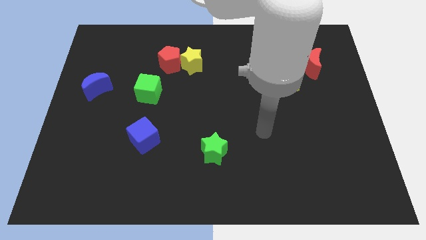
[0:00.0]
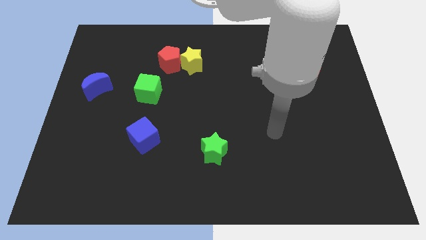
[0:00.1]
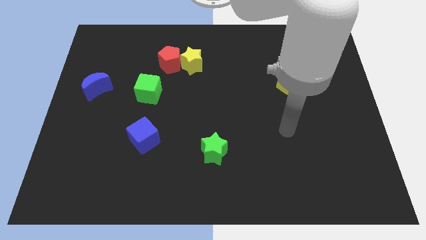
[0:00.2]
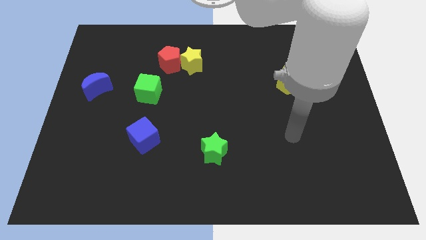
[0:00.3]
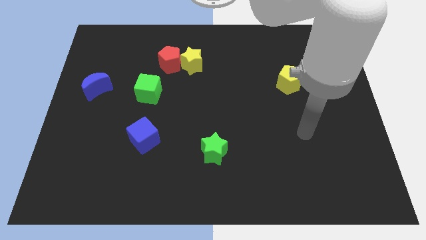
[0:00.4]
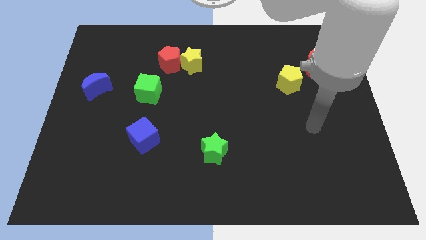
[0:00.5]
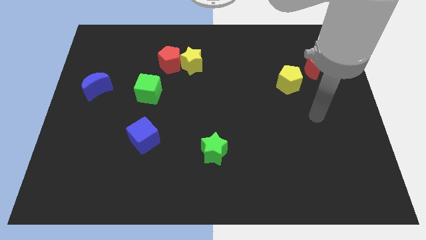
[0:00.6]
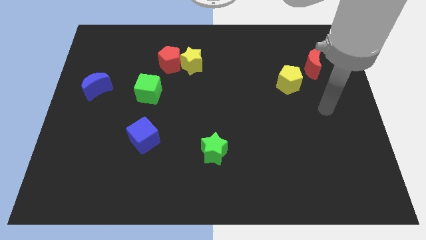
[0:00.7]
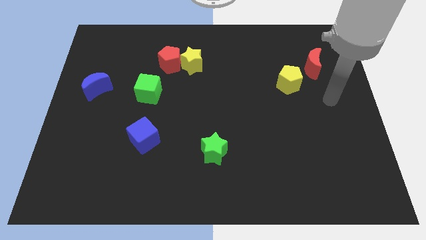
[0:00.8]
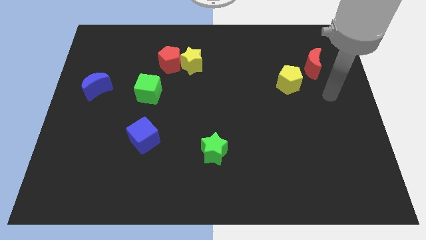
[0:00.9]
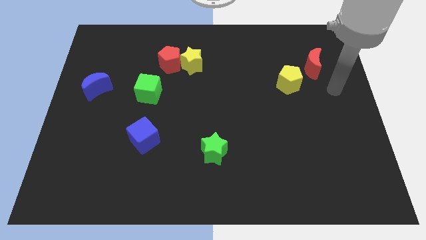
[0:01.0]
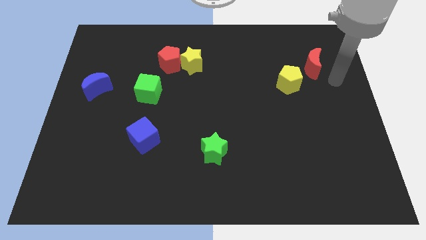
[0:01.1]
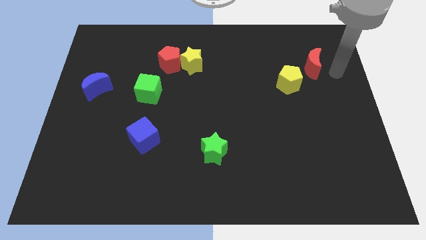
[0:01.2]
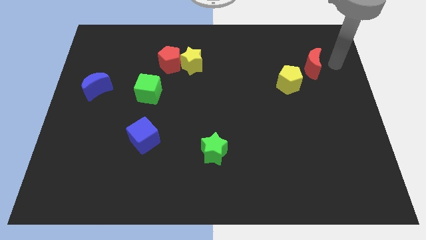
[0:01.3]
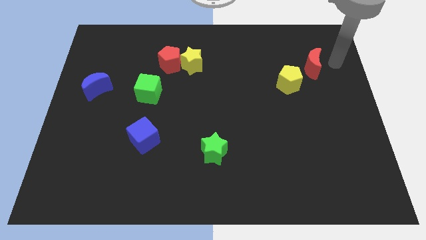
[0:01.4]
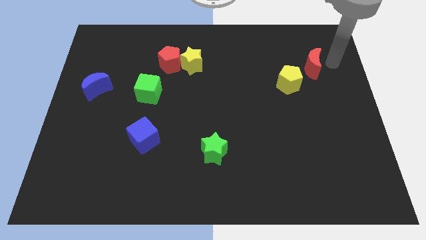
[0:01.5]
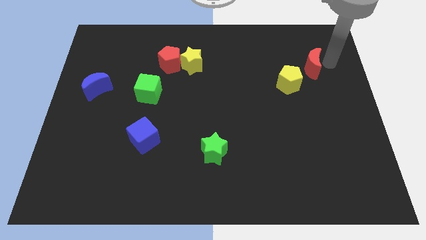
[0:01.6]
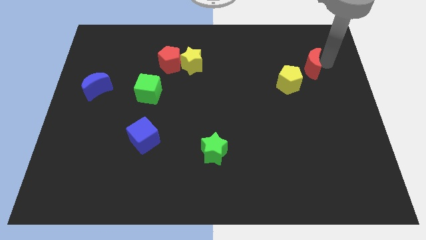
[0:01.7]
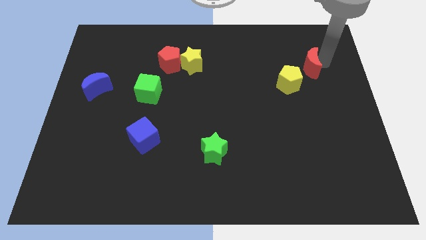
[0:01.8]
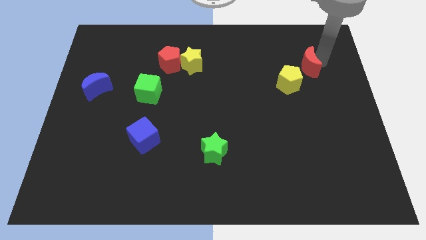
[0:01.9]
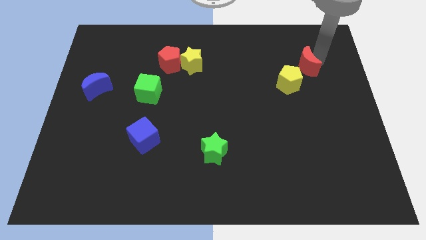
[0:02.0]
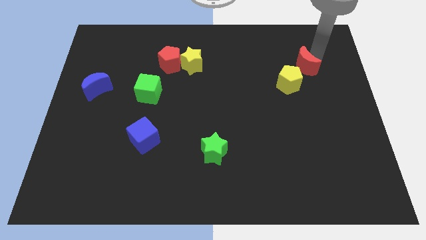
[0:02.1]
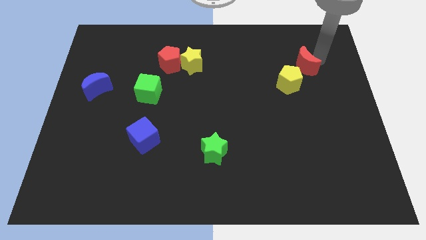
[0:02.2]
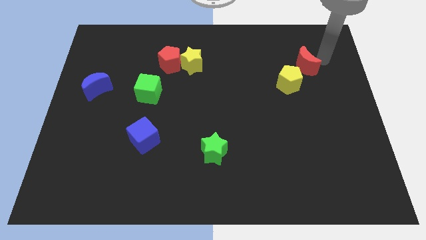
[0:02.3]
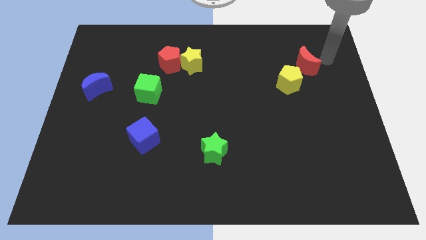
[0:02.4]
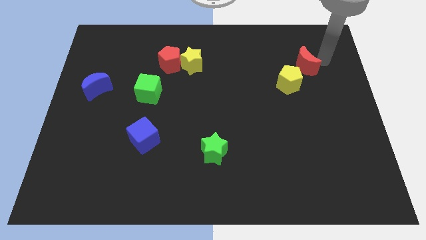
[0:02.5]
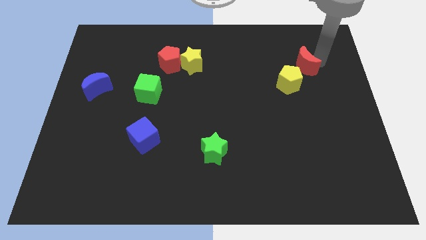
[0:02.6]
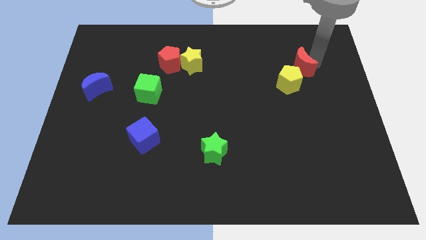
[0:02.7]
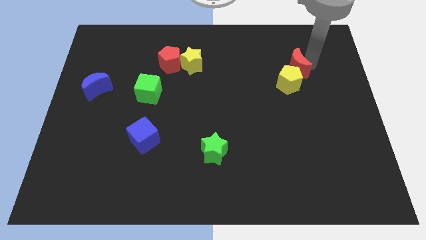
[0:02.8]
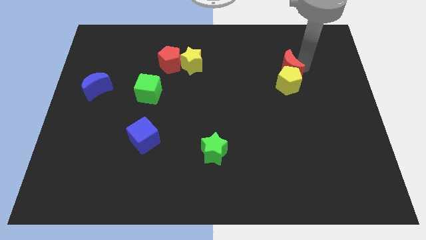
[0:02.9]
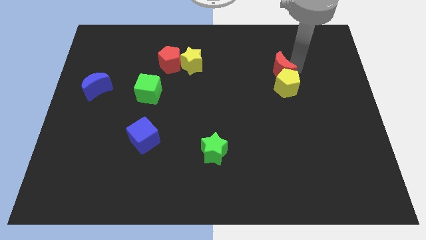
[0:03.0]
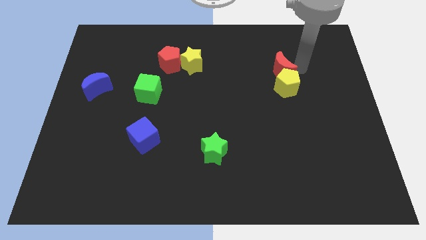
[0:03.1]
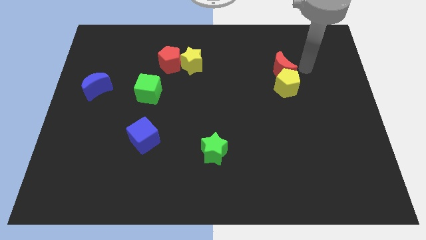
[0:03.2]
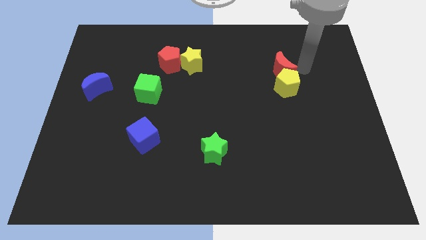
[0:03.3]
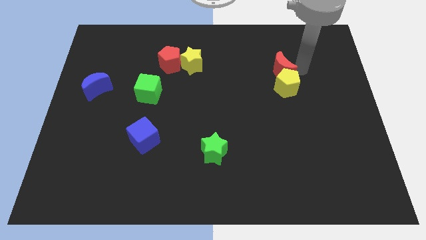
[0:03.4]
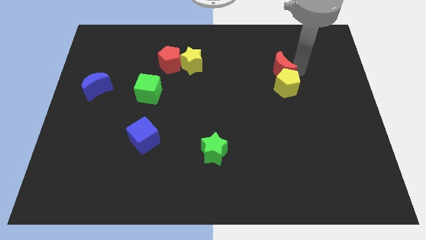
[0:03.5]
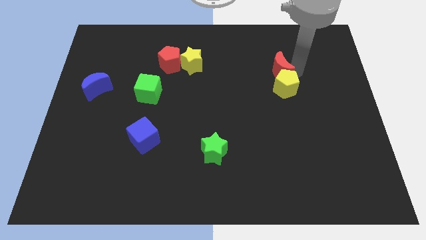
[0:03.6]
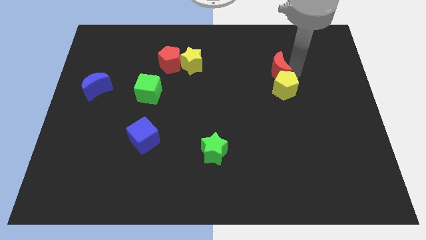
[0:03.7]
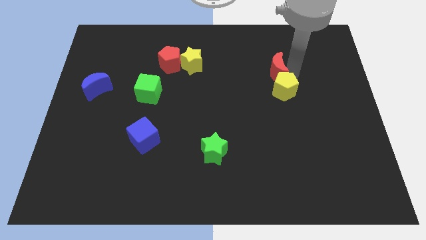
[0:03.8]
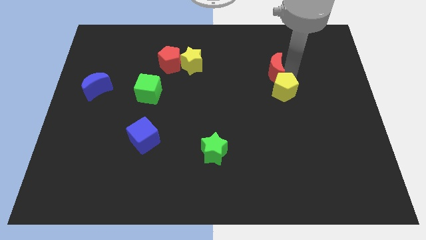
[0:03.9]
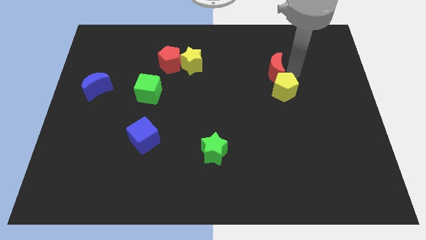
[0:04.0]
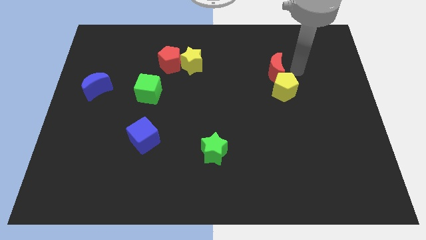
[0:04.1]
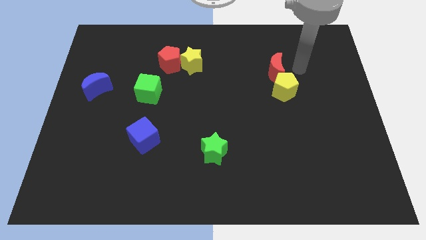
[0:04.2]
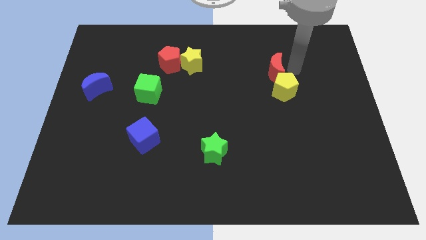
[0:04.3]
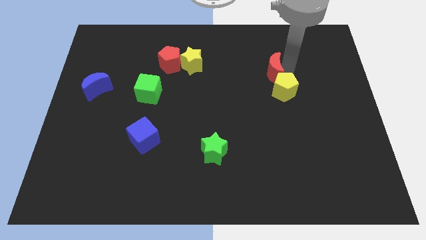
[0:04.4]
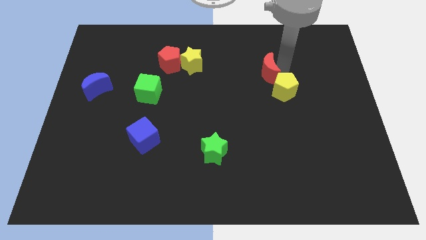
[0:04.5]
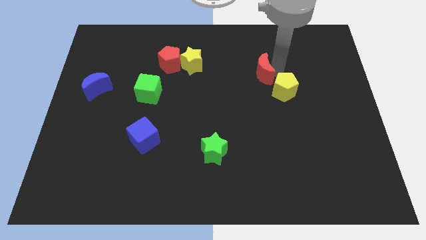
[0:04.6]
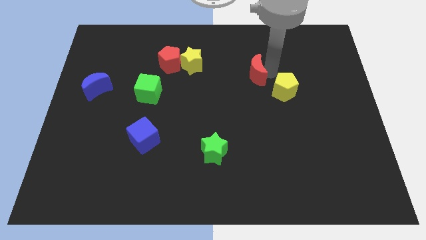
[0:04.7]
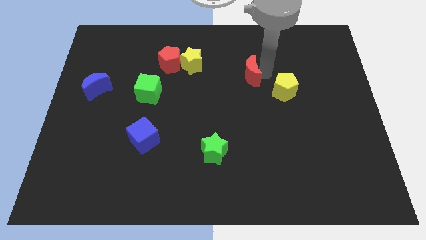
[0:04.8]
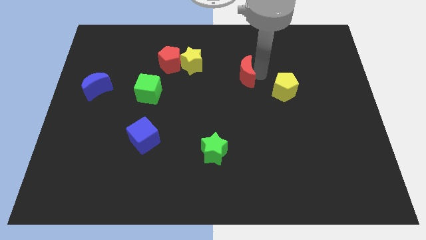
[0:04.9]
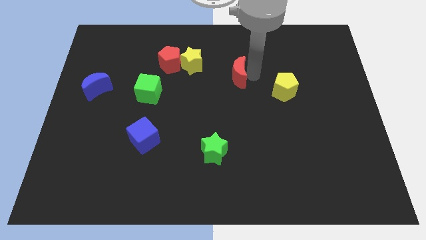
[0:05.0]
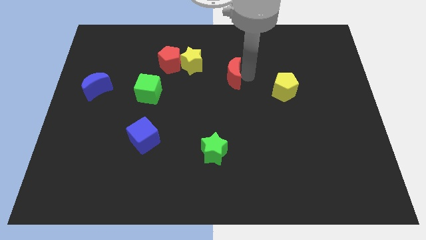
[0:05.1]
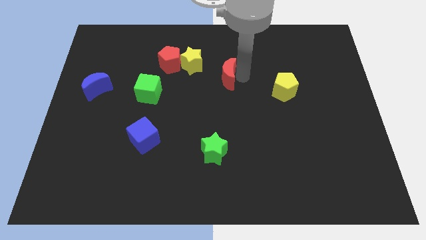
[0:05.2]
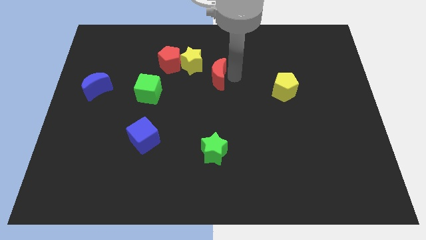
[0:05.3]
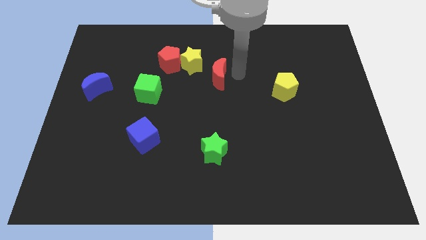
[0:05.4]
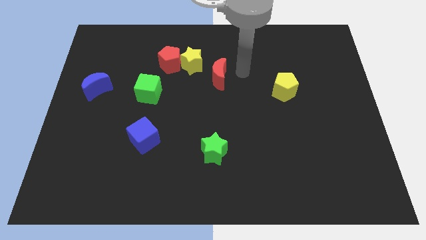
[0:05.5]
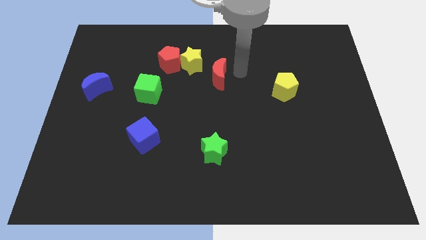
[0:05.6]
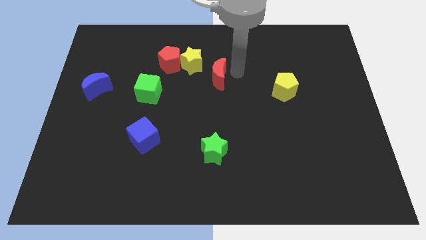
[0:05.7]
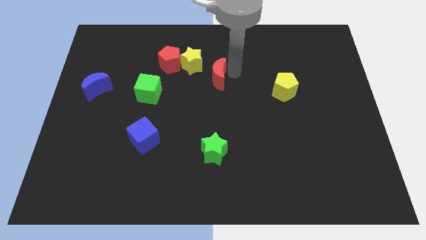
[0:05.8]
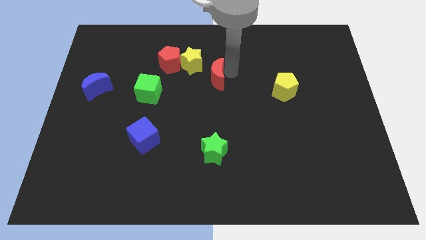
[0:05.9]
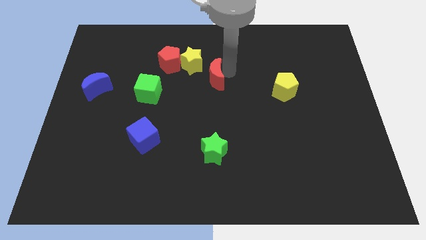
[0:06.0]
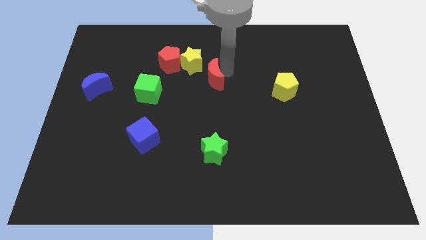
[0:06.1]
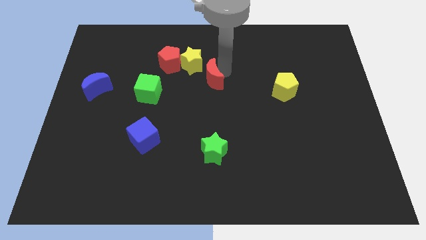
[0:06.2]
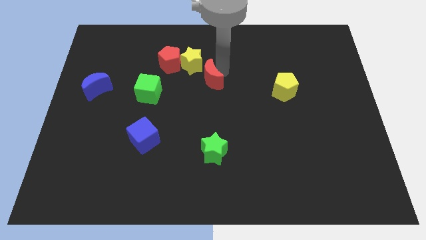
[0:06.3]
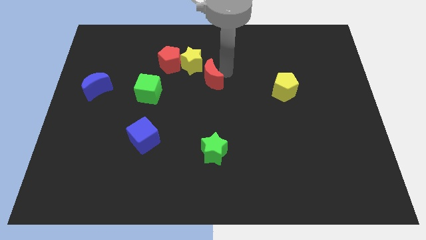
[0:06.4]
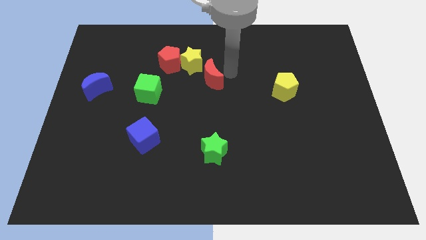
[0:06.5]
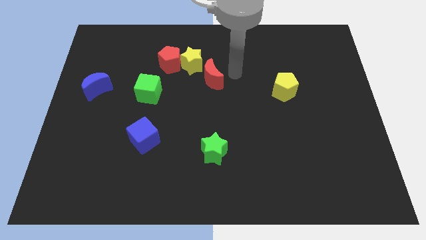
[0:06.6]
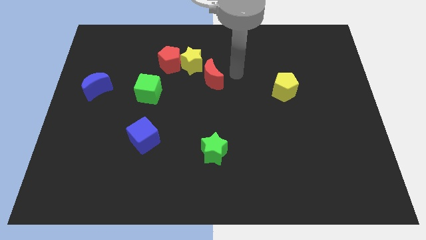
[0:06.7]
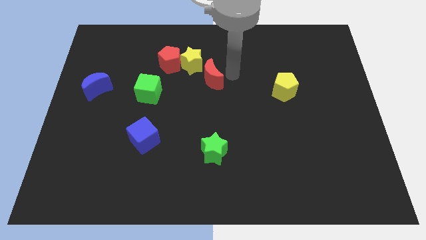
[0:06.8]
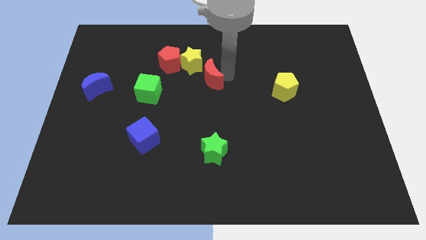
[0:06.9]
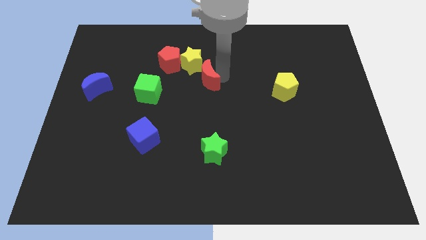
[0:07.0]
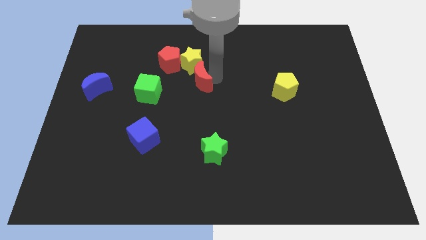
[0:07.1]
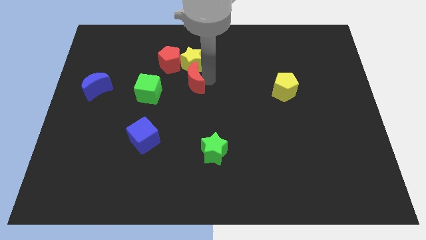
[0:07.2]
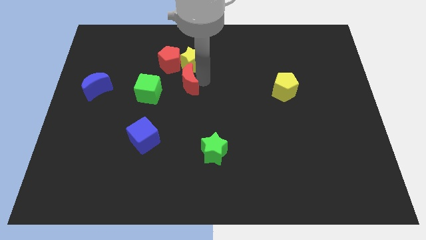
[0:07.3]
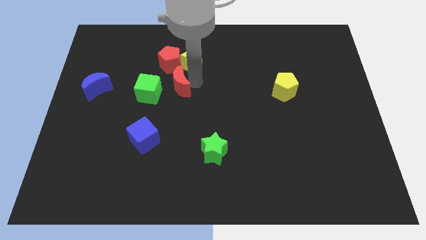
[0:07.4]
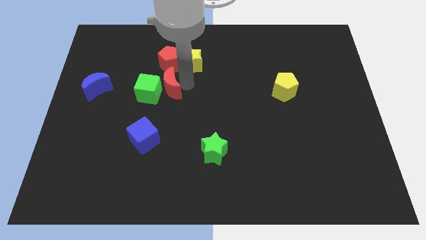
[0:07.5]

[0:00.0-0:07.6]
slide the red moon towards the green cube
